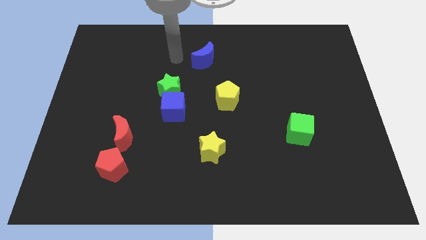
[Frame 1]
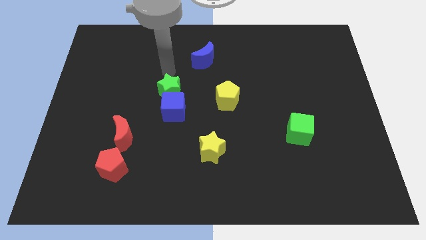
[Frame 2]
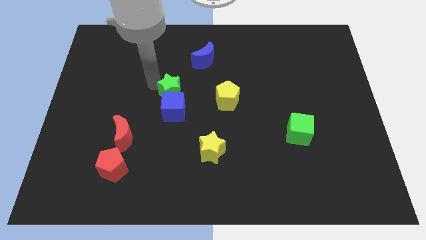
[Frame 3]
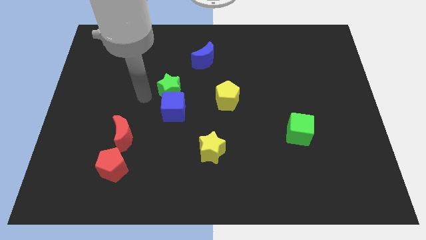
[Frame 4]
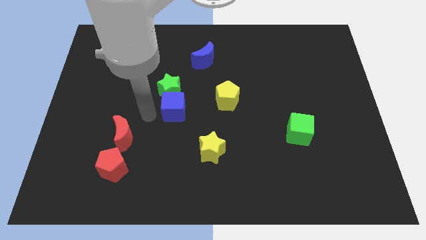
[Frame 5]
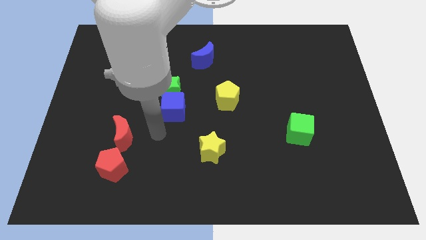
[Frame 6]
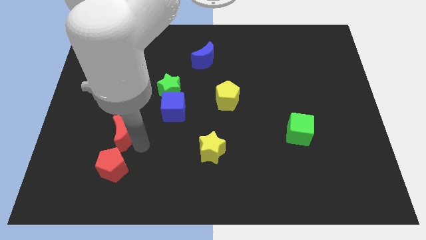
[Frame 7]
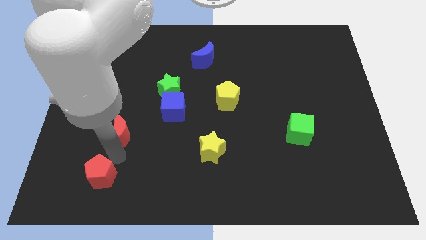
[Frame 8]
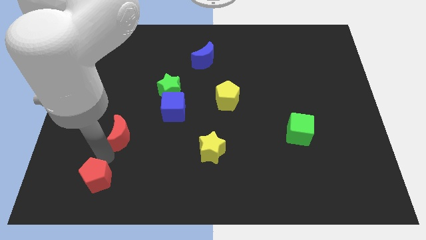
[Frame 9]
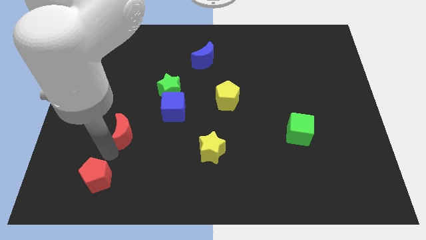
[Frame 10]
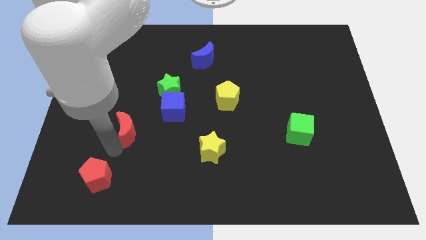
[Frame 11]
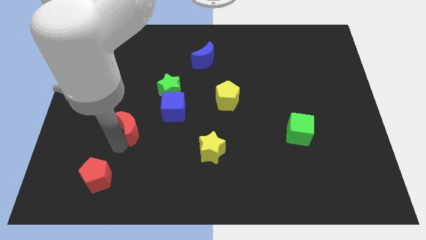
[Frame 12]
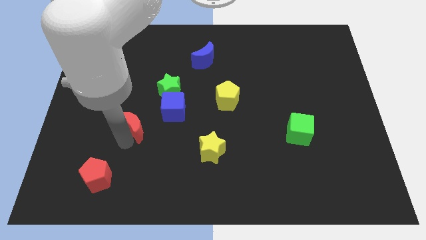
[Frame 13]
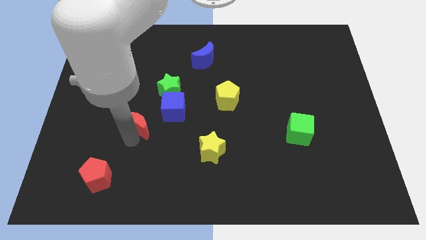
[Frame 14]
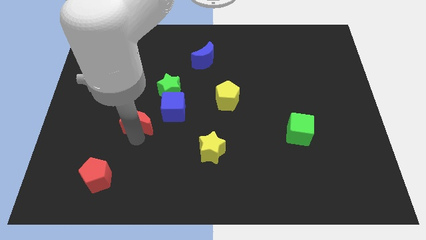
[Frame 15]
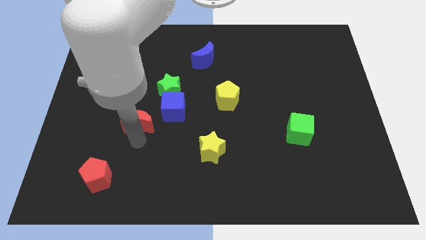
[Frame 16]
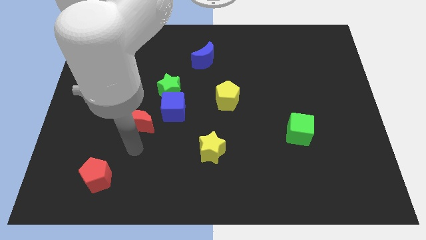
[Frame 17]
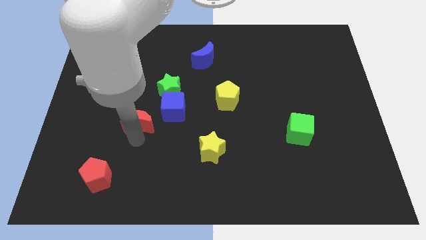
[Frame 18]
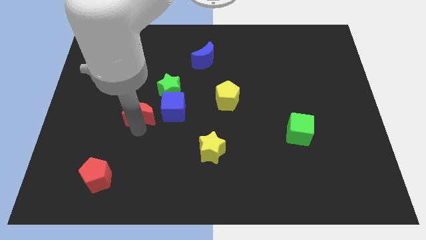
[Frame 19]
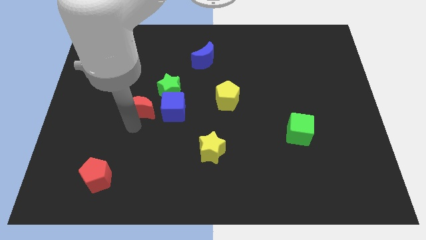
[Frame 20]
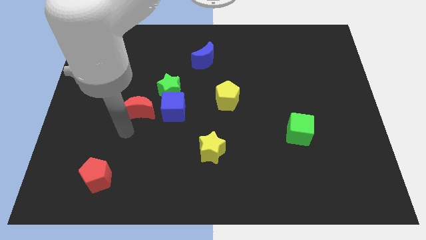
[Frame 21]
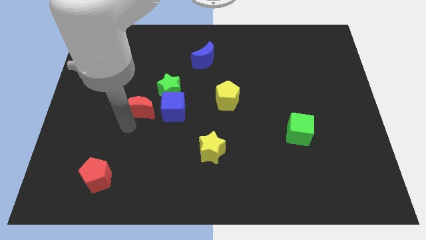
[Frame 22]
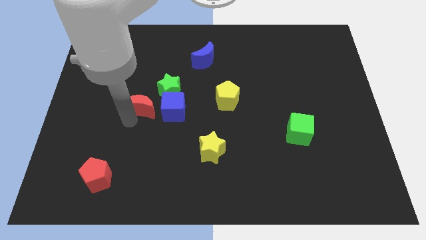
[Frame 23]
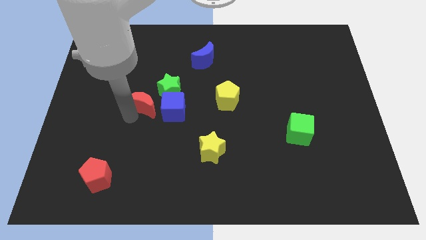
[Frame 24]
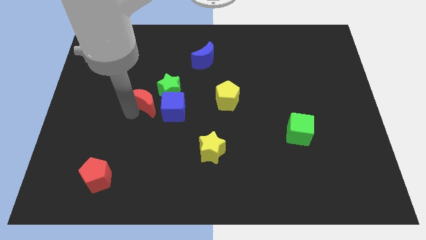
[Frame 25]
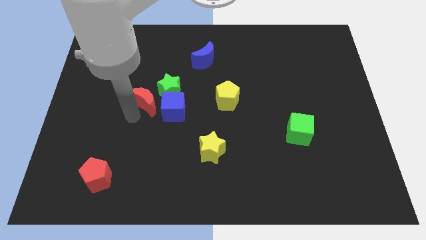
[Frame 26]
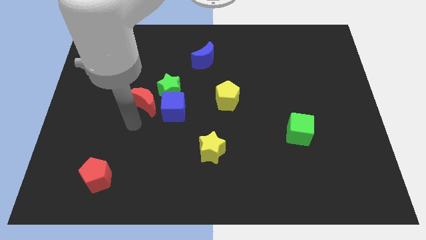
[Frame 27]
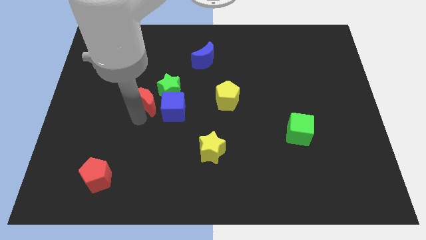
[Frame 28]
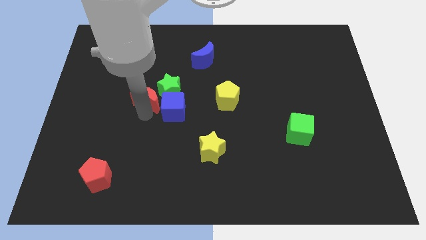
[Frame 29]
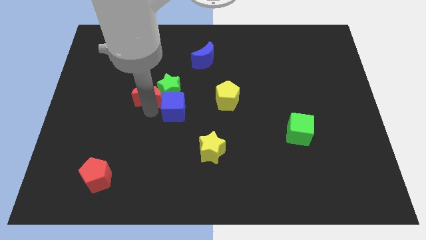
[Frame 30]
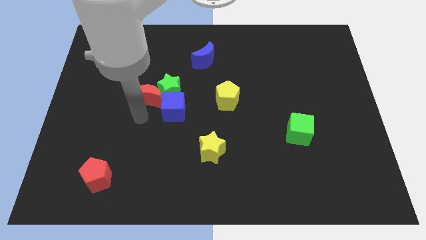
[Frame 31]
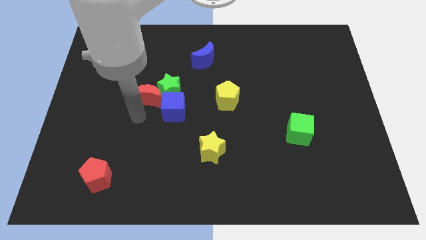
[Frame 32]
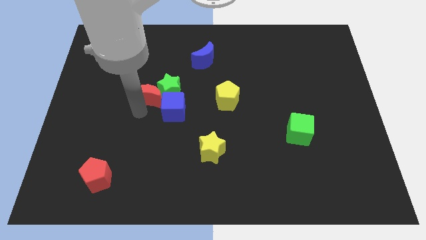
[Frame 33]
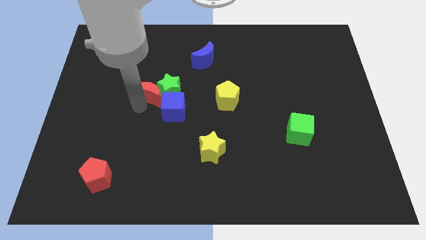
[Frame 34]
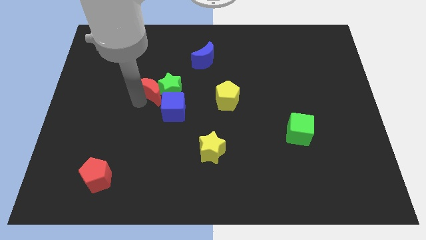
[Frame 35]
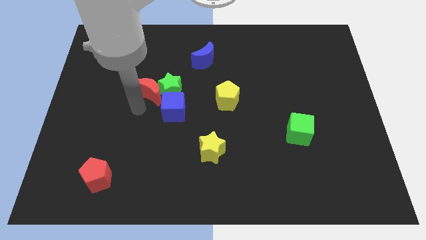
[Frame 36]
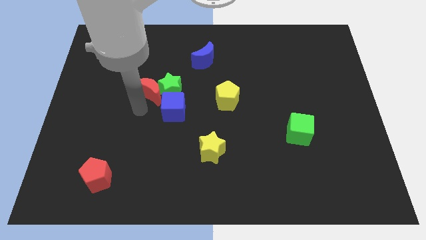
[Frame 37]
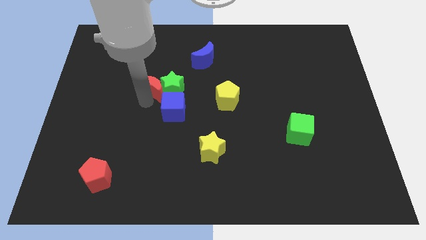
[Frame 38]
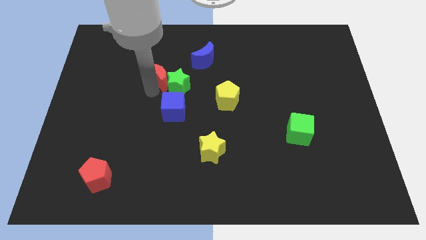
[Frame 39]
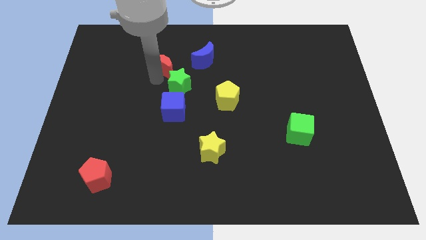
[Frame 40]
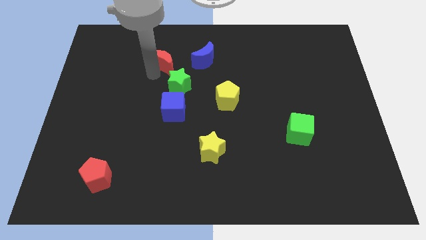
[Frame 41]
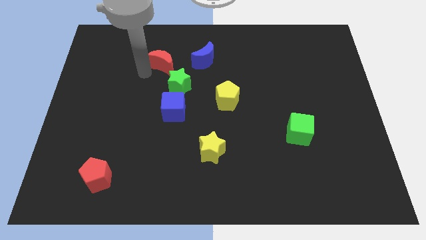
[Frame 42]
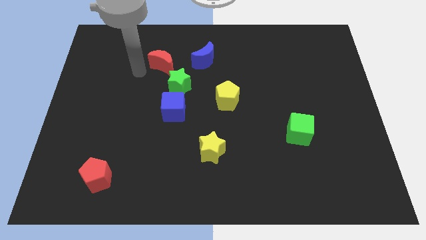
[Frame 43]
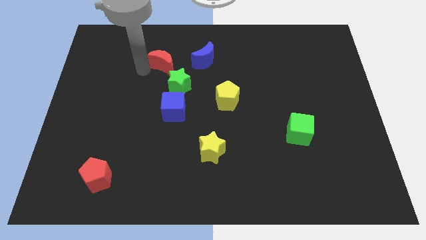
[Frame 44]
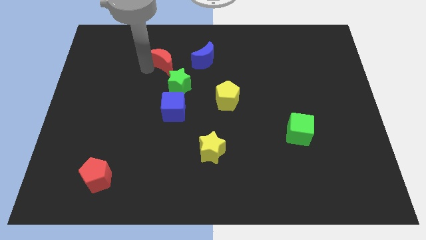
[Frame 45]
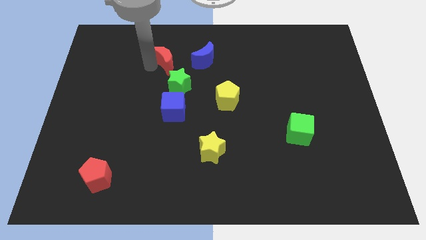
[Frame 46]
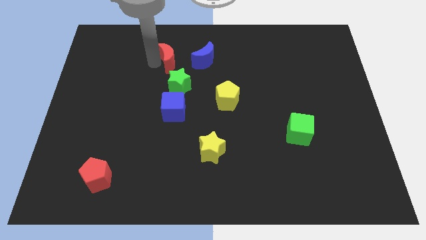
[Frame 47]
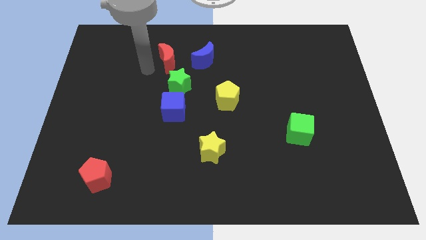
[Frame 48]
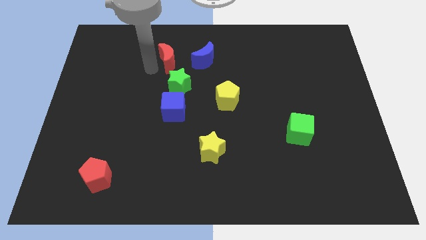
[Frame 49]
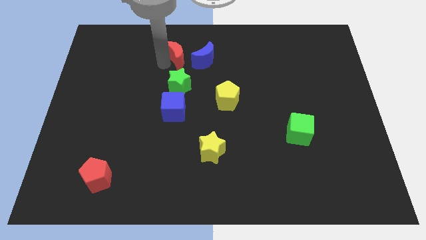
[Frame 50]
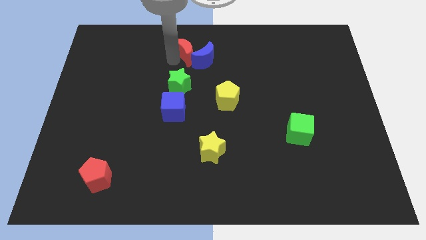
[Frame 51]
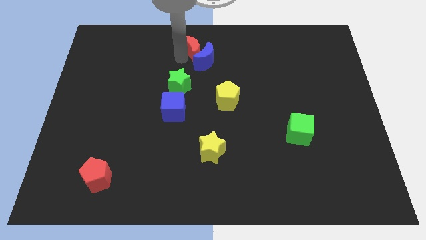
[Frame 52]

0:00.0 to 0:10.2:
put the red moon to the top side

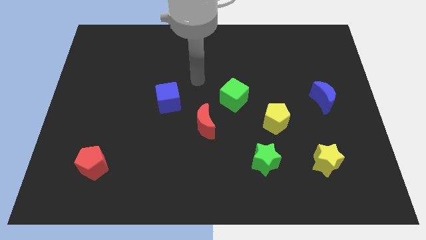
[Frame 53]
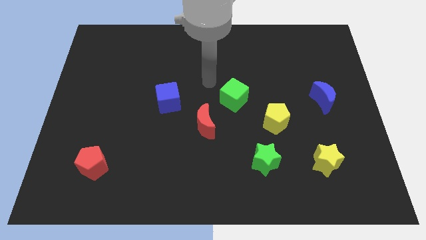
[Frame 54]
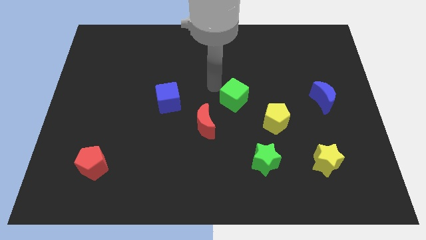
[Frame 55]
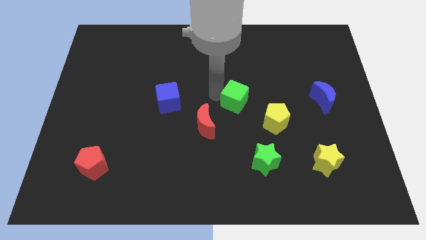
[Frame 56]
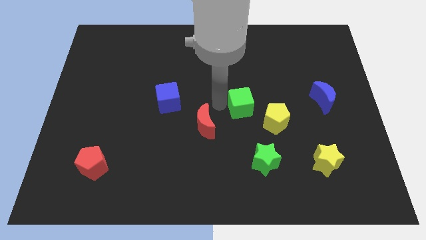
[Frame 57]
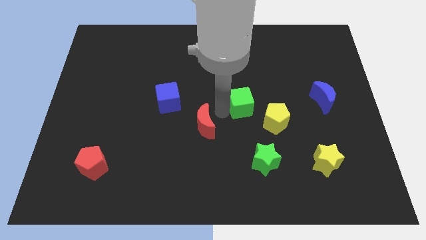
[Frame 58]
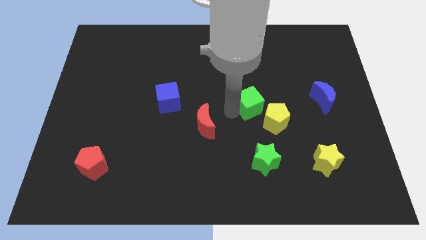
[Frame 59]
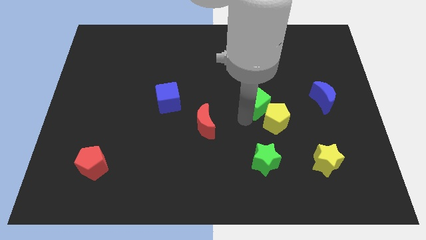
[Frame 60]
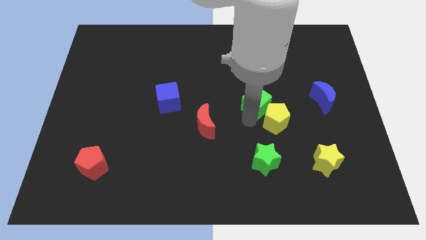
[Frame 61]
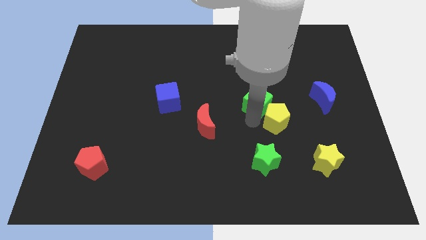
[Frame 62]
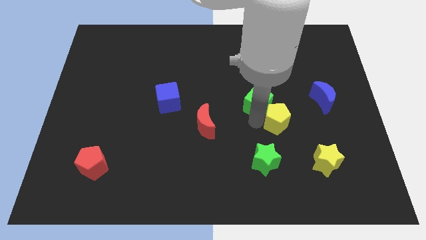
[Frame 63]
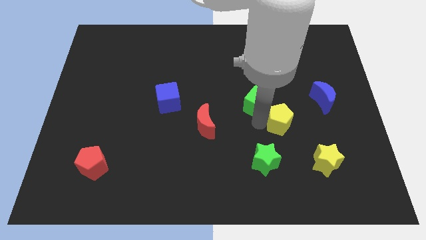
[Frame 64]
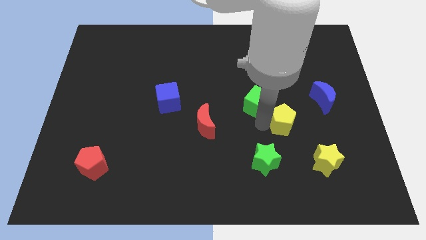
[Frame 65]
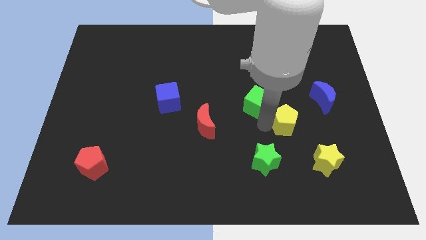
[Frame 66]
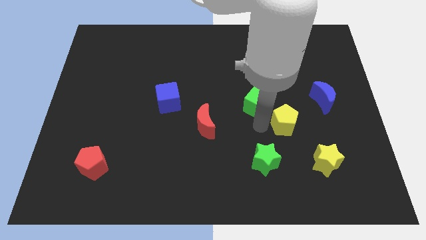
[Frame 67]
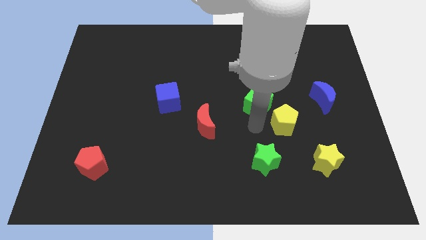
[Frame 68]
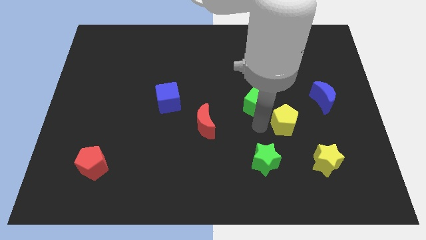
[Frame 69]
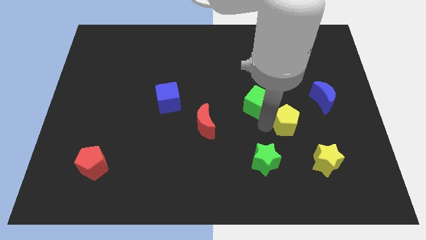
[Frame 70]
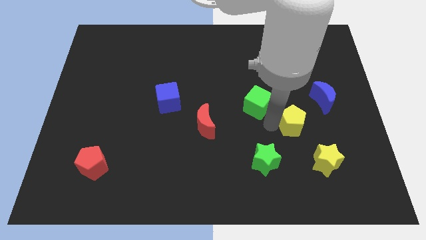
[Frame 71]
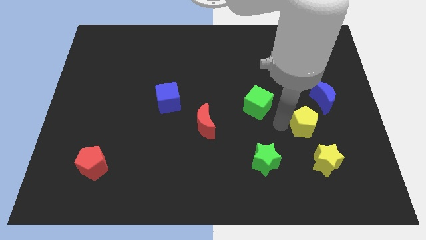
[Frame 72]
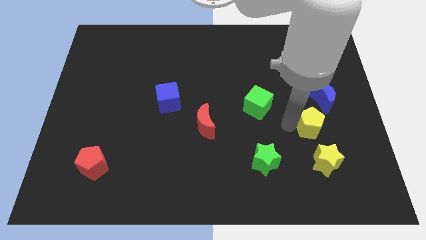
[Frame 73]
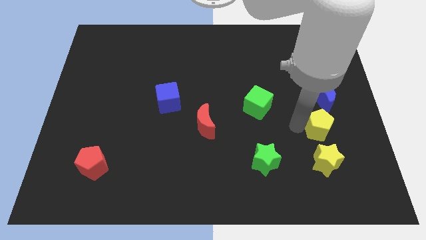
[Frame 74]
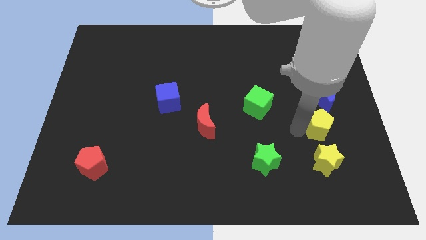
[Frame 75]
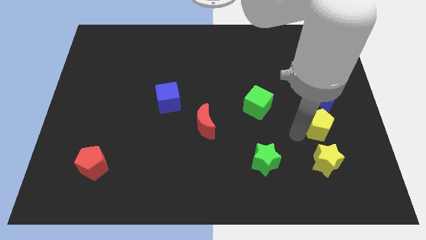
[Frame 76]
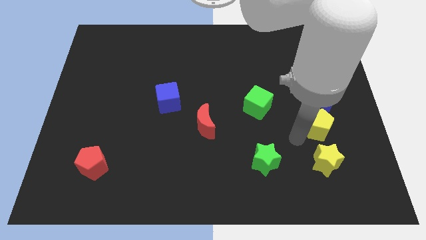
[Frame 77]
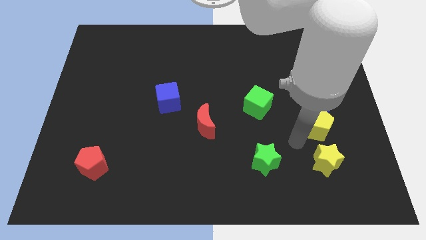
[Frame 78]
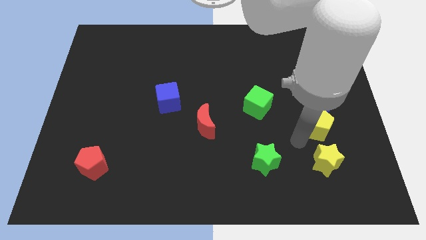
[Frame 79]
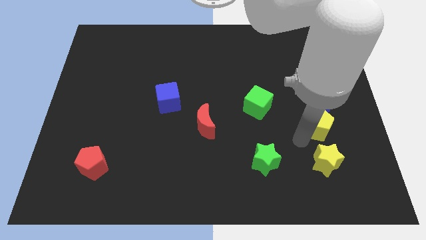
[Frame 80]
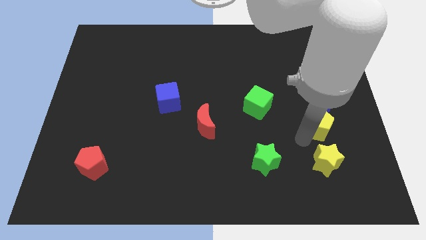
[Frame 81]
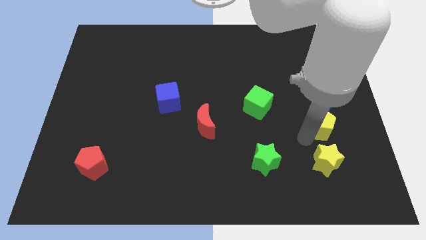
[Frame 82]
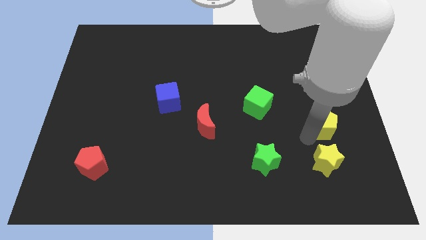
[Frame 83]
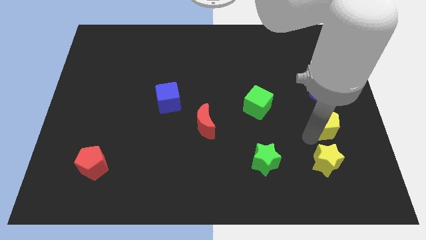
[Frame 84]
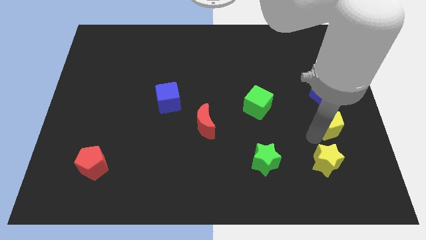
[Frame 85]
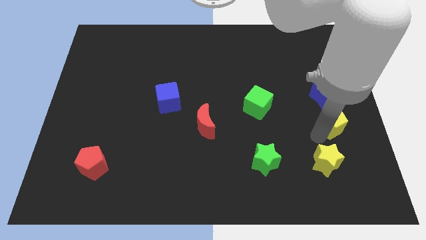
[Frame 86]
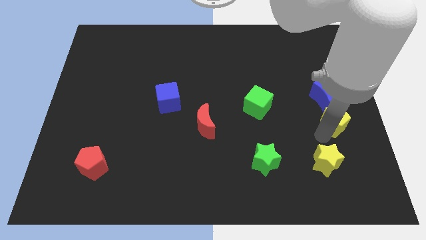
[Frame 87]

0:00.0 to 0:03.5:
move the yellow pentagon to the right side
